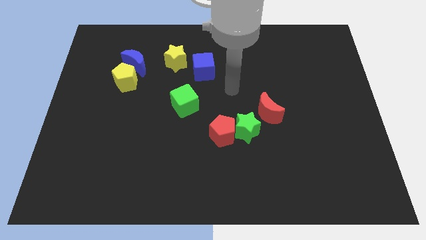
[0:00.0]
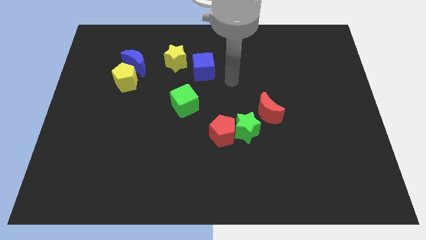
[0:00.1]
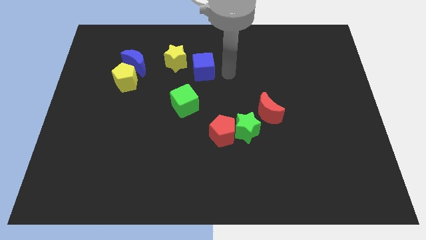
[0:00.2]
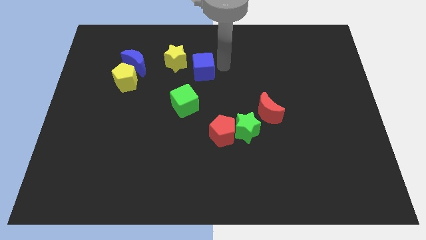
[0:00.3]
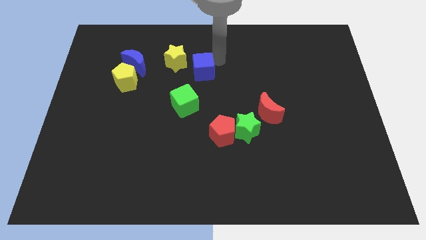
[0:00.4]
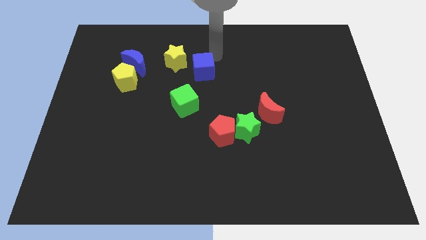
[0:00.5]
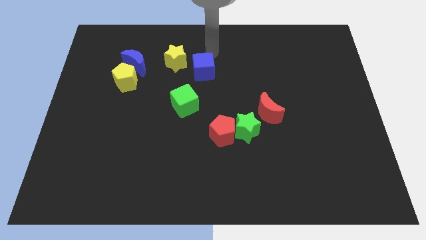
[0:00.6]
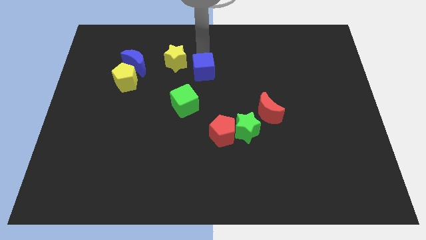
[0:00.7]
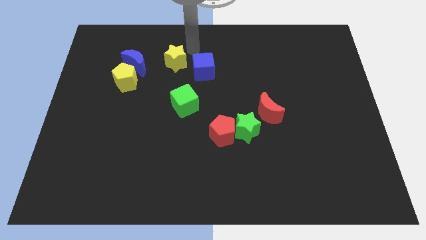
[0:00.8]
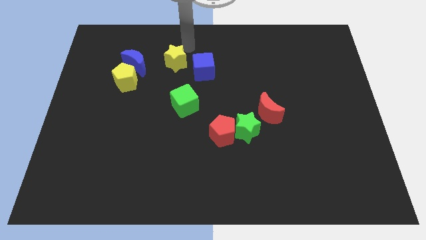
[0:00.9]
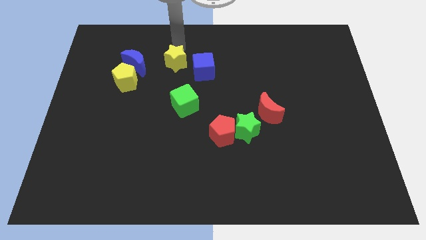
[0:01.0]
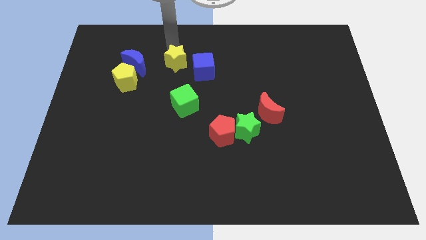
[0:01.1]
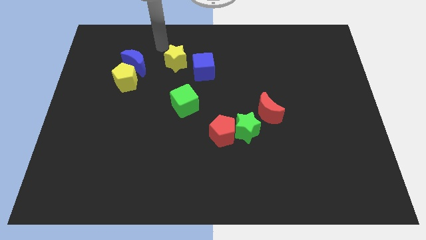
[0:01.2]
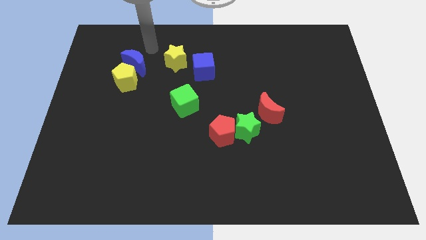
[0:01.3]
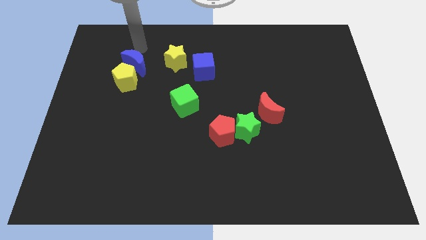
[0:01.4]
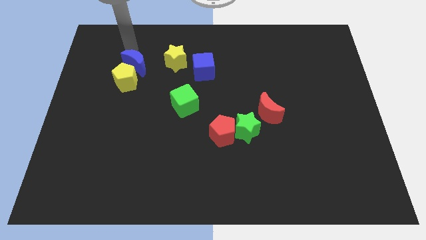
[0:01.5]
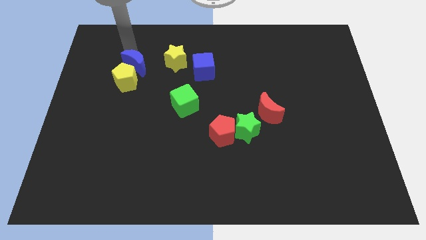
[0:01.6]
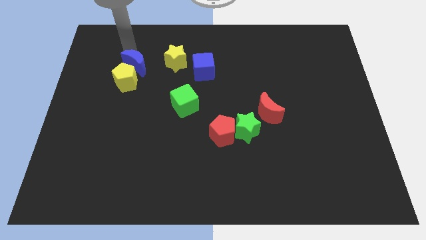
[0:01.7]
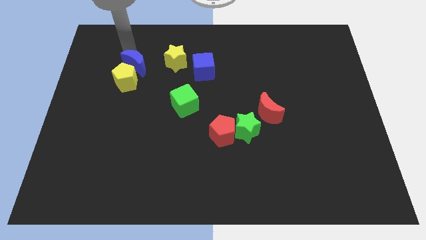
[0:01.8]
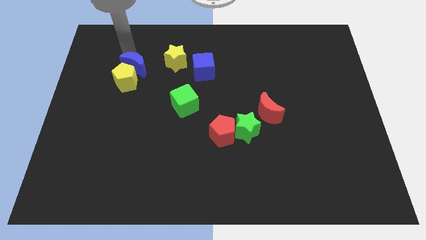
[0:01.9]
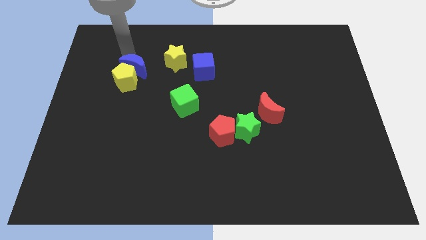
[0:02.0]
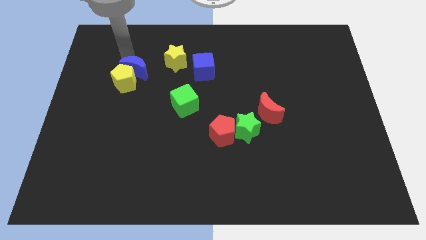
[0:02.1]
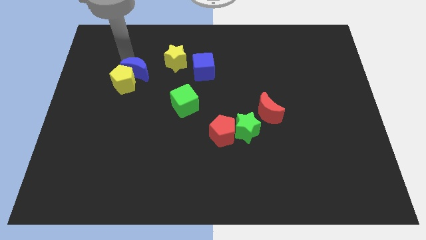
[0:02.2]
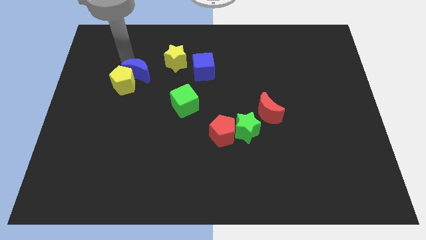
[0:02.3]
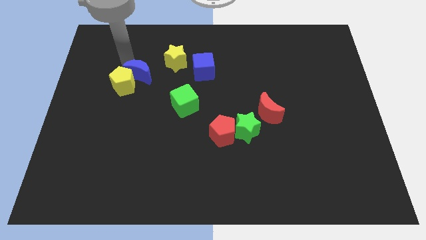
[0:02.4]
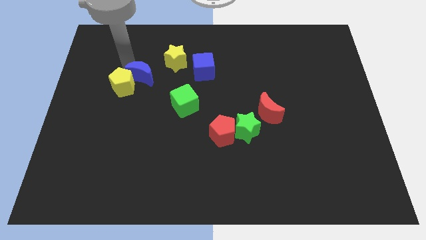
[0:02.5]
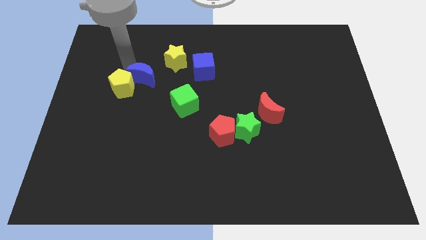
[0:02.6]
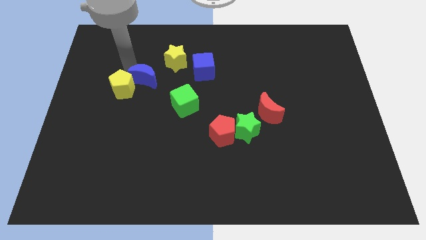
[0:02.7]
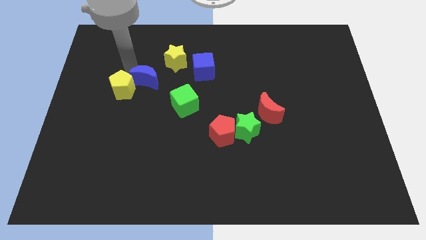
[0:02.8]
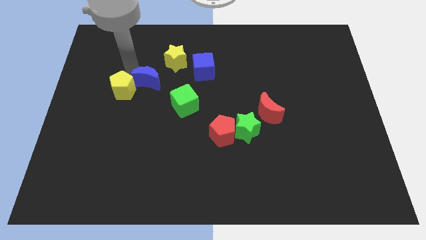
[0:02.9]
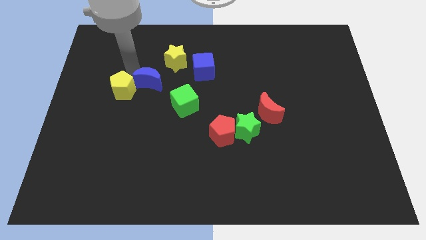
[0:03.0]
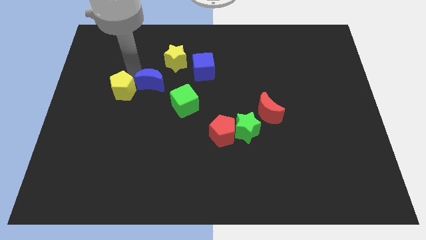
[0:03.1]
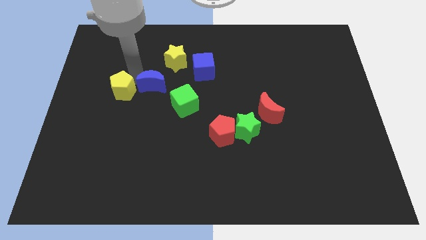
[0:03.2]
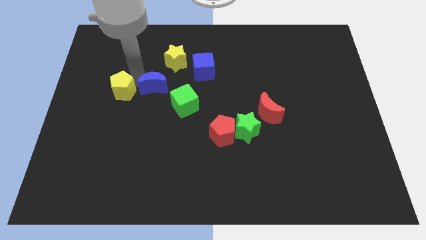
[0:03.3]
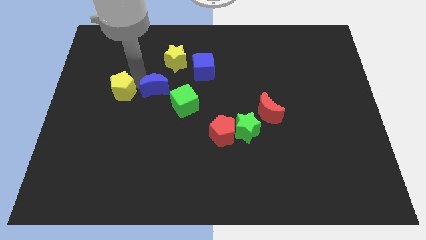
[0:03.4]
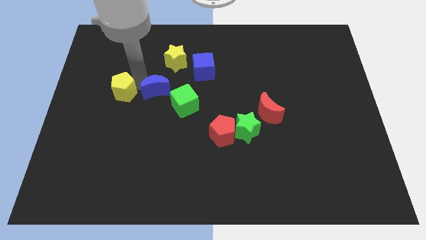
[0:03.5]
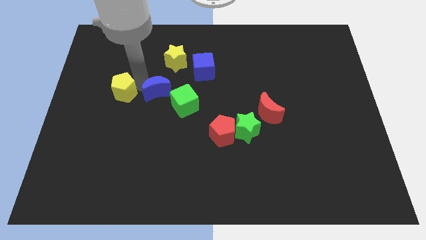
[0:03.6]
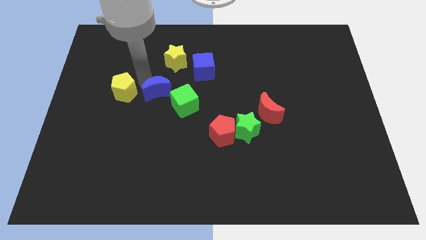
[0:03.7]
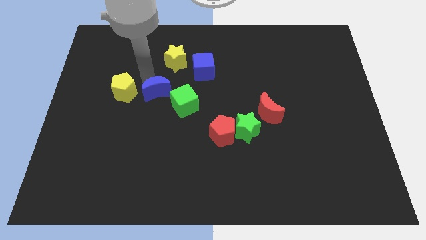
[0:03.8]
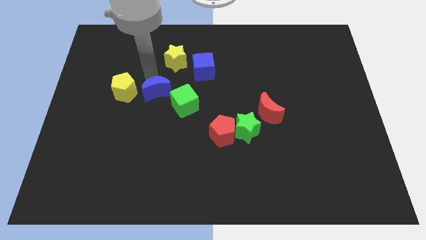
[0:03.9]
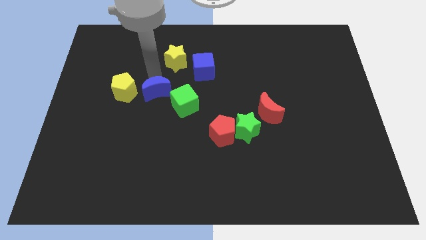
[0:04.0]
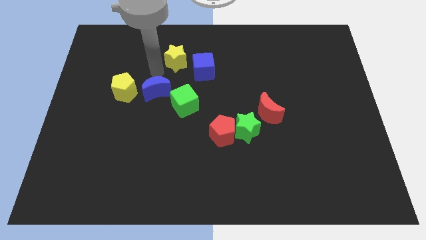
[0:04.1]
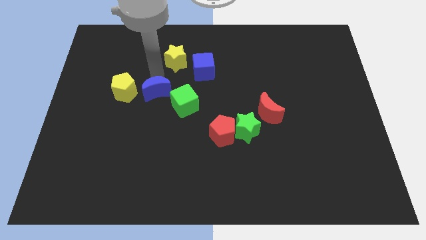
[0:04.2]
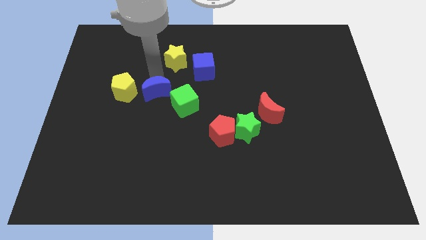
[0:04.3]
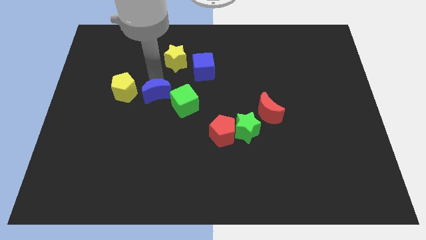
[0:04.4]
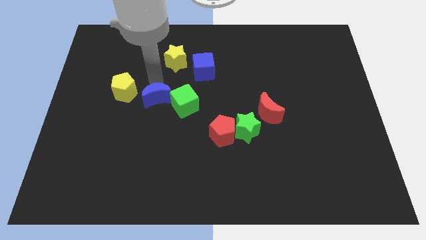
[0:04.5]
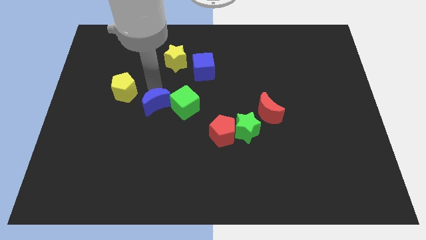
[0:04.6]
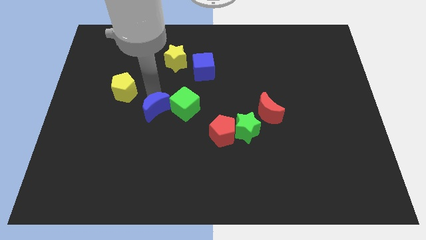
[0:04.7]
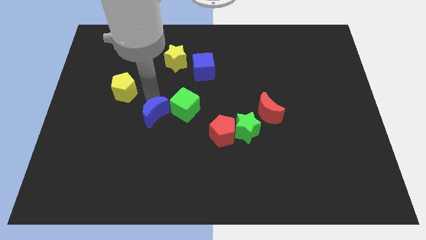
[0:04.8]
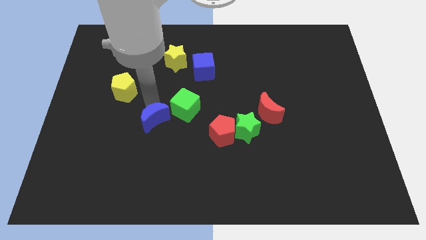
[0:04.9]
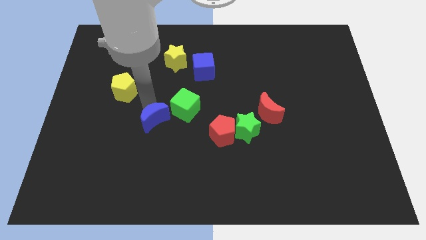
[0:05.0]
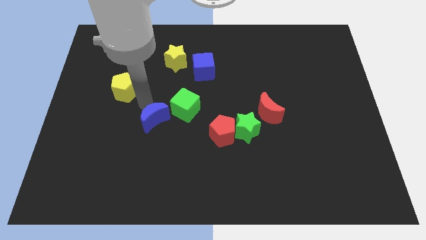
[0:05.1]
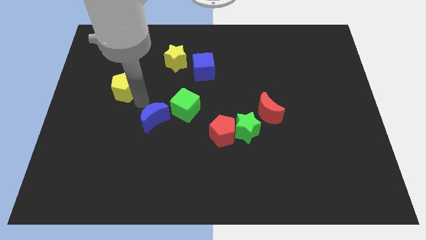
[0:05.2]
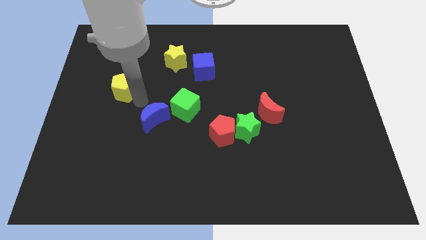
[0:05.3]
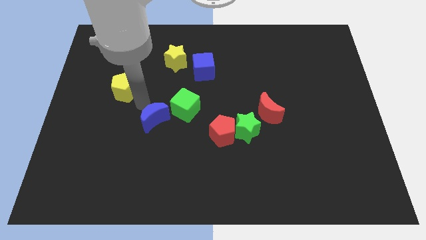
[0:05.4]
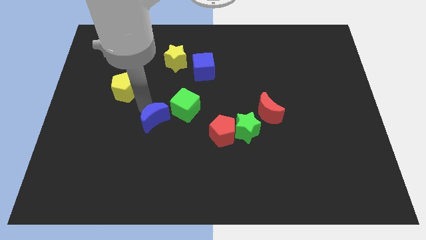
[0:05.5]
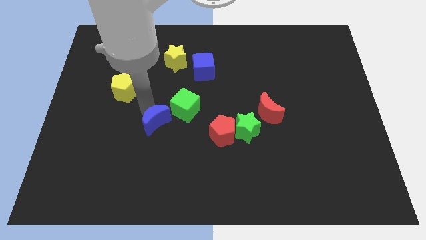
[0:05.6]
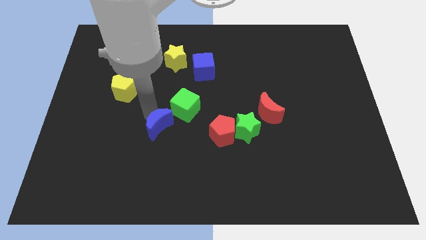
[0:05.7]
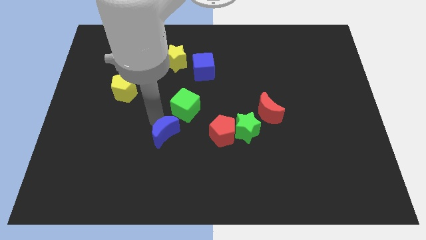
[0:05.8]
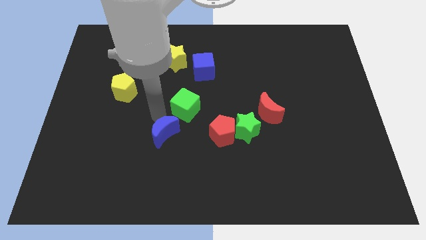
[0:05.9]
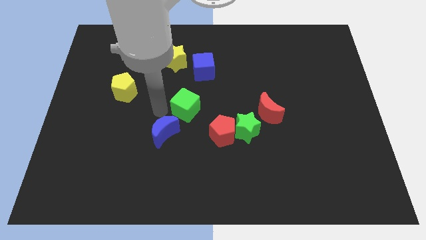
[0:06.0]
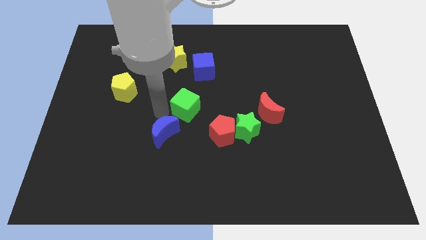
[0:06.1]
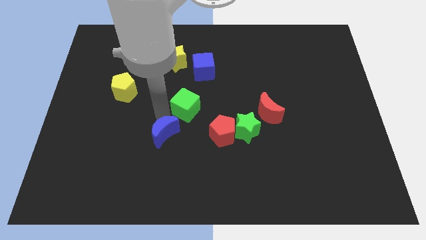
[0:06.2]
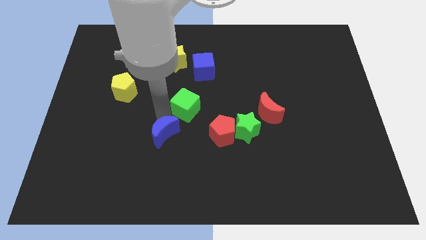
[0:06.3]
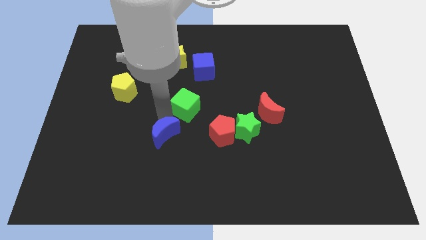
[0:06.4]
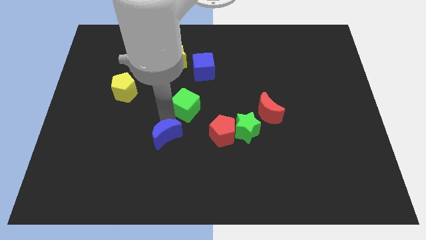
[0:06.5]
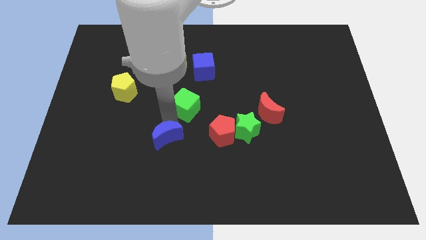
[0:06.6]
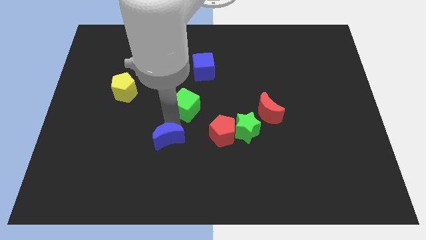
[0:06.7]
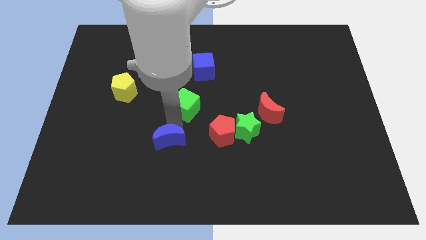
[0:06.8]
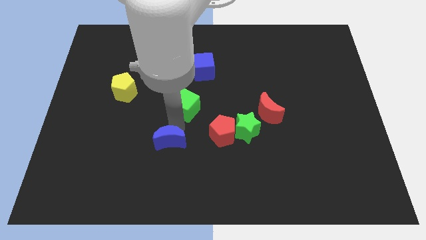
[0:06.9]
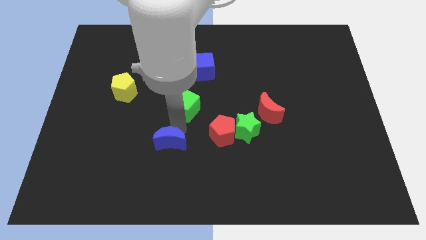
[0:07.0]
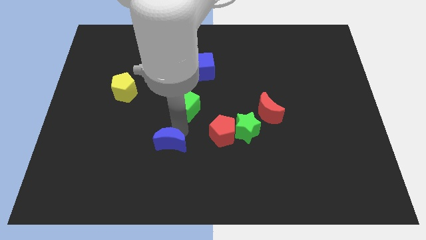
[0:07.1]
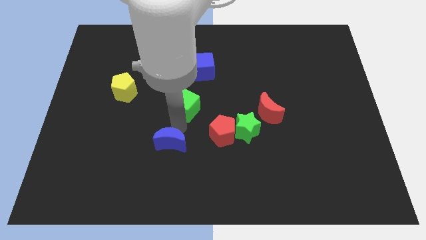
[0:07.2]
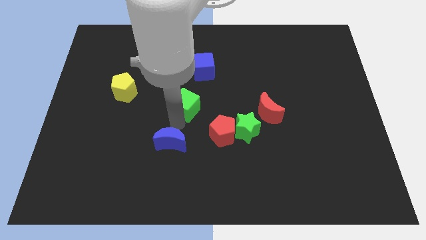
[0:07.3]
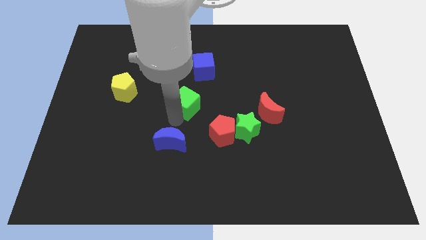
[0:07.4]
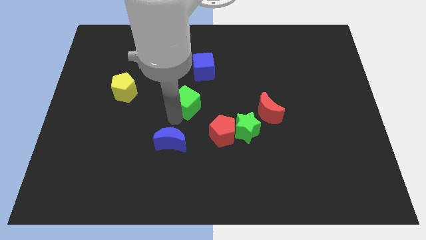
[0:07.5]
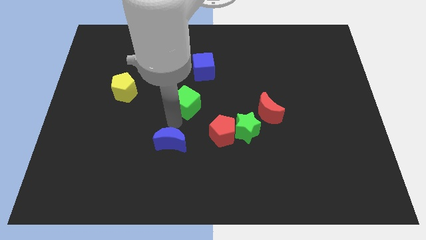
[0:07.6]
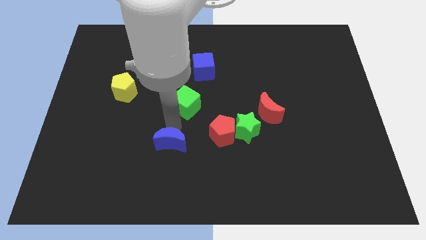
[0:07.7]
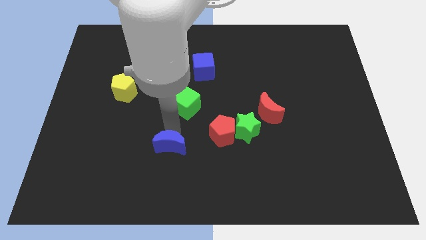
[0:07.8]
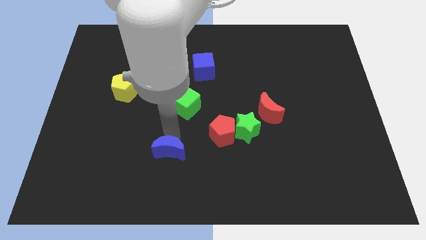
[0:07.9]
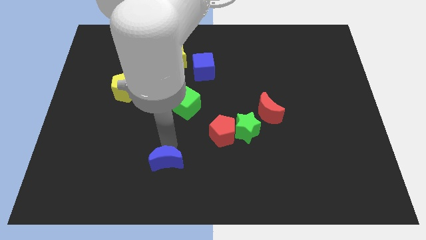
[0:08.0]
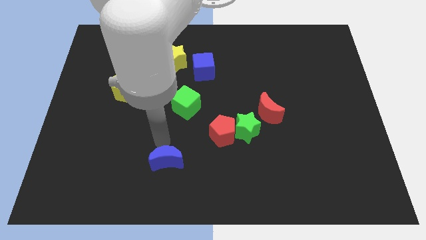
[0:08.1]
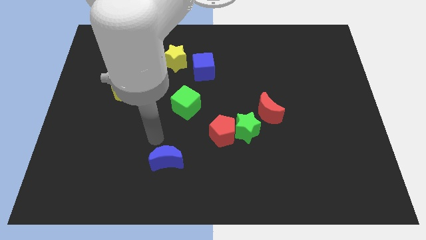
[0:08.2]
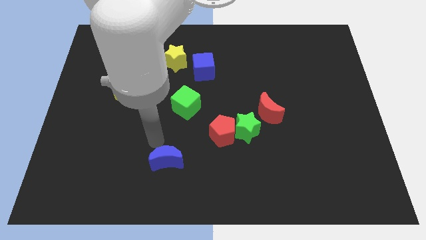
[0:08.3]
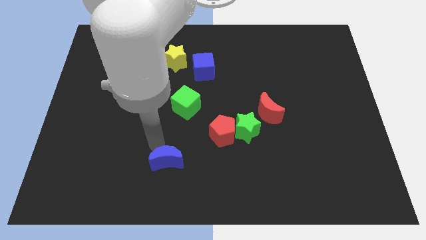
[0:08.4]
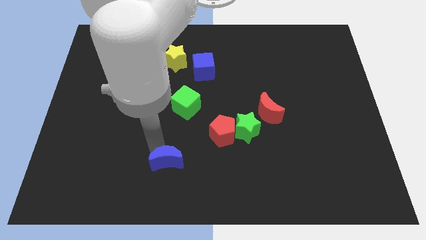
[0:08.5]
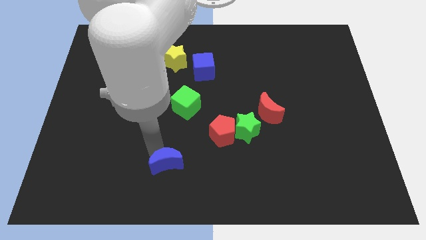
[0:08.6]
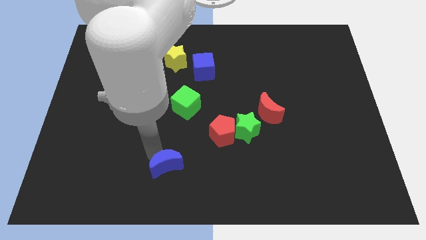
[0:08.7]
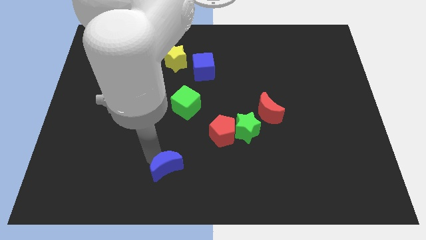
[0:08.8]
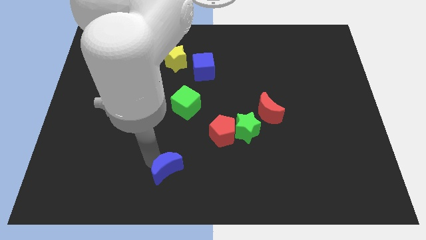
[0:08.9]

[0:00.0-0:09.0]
push the blue moon to the bottom
